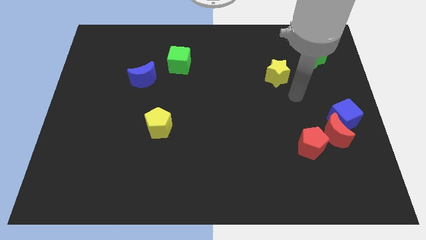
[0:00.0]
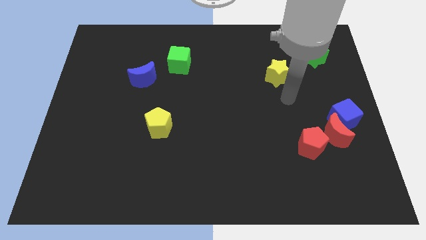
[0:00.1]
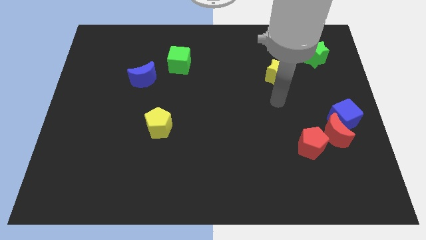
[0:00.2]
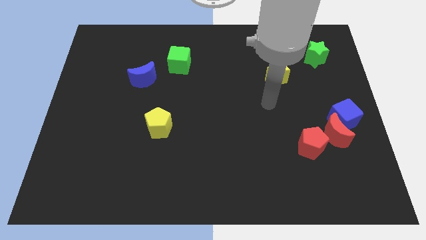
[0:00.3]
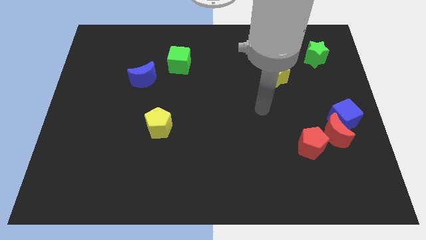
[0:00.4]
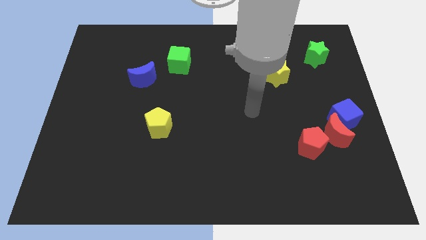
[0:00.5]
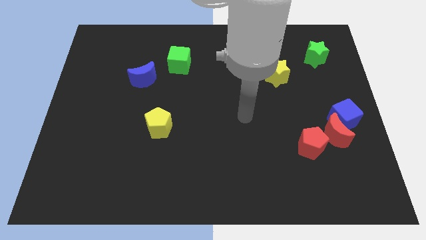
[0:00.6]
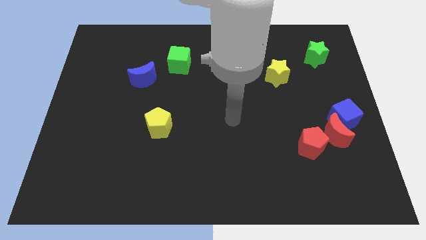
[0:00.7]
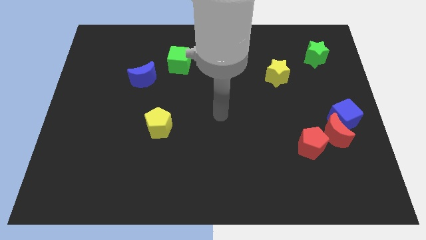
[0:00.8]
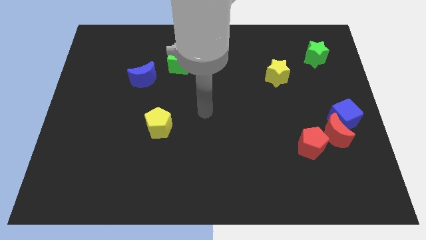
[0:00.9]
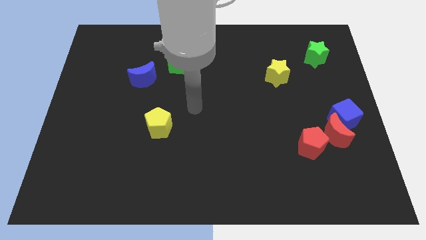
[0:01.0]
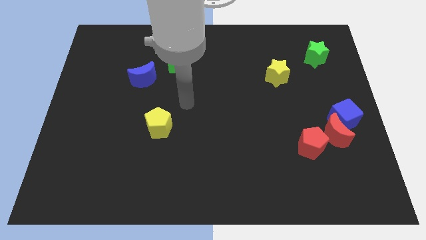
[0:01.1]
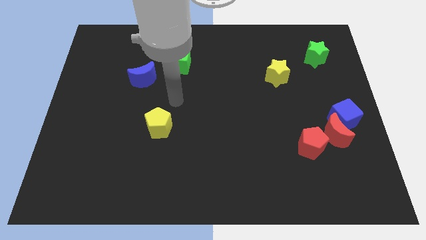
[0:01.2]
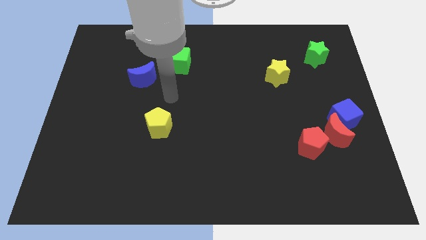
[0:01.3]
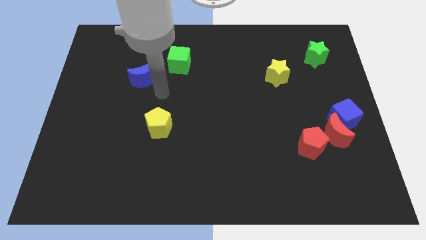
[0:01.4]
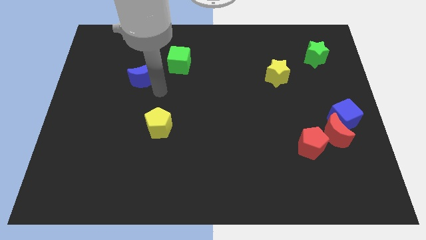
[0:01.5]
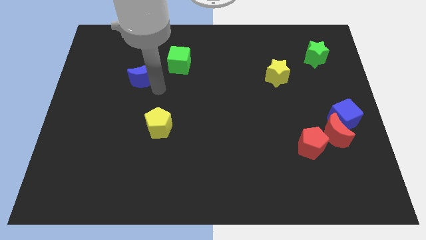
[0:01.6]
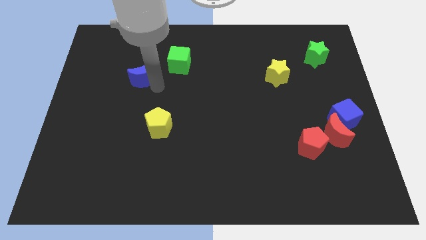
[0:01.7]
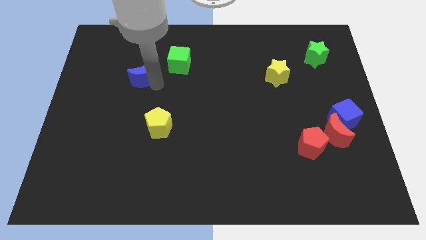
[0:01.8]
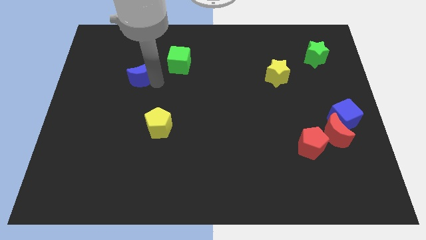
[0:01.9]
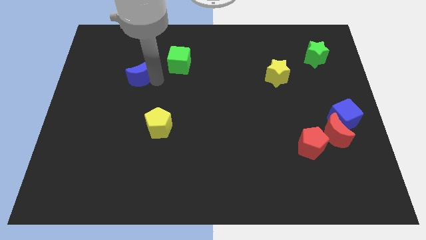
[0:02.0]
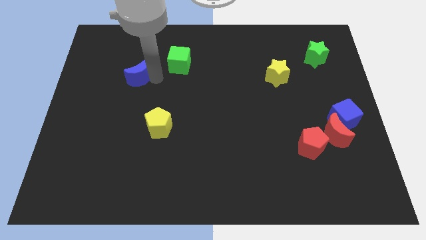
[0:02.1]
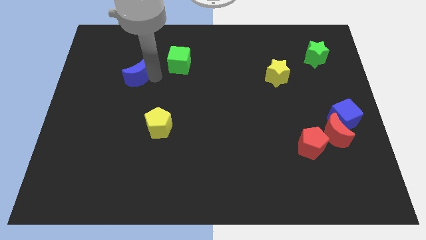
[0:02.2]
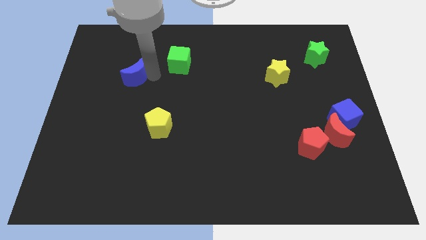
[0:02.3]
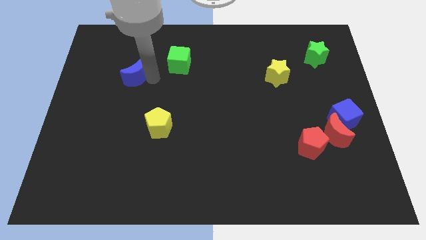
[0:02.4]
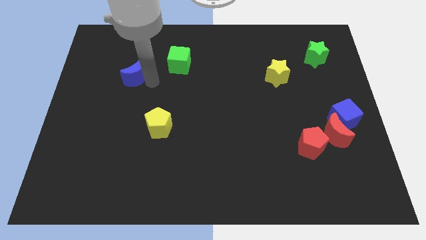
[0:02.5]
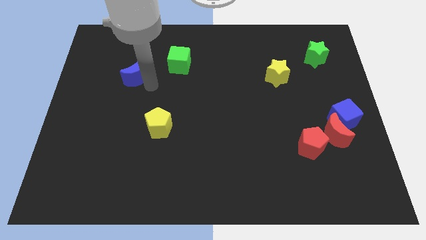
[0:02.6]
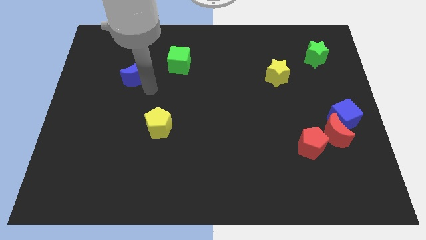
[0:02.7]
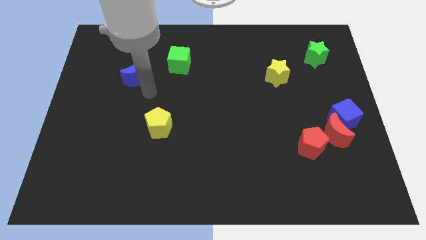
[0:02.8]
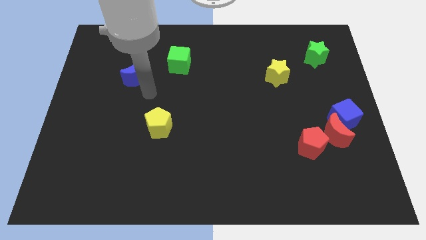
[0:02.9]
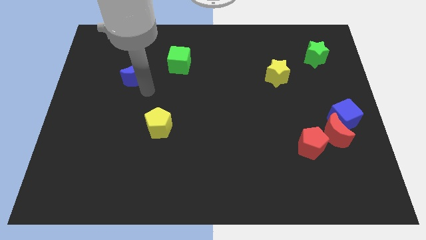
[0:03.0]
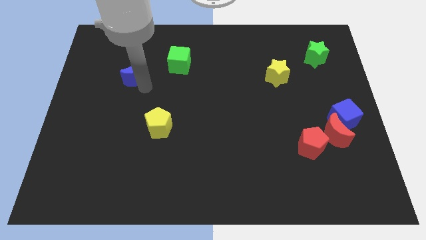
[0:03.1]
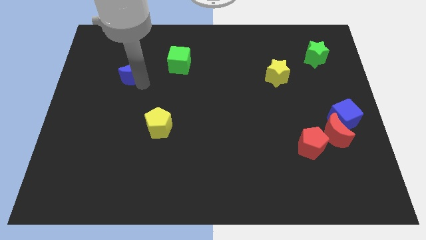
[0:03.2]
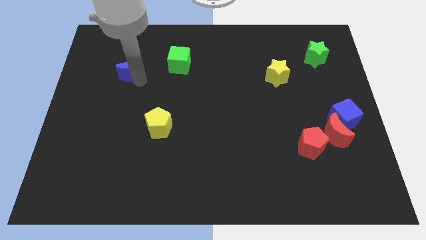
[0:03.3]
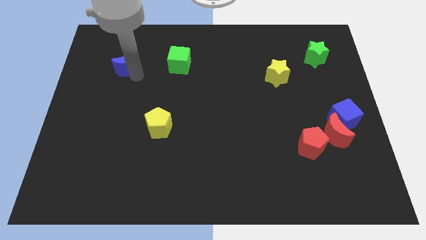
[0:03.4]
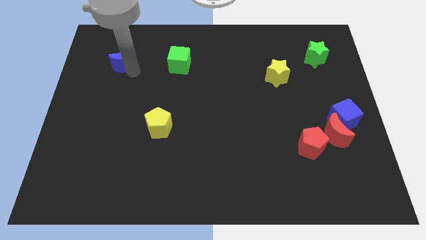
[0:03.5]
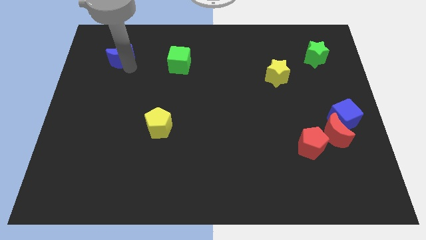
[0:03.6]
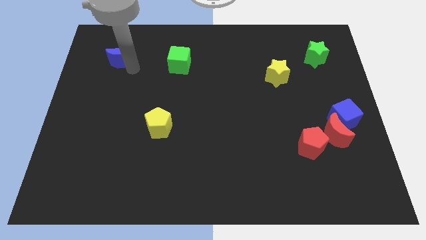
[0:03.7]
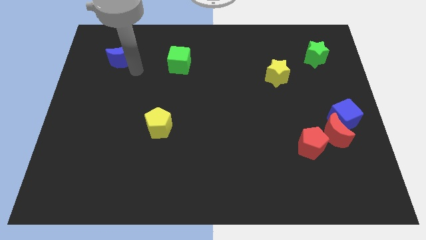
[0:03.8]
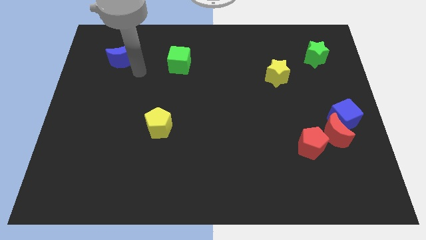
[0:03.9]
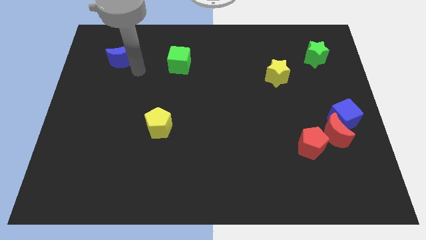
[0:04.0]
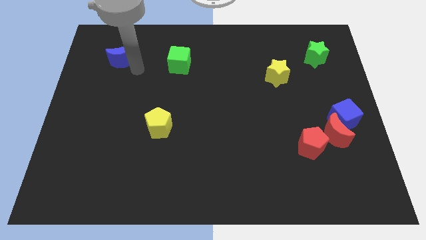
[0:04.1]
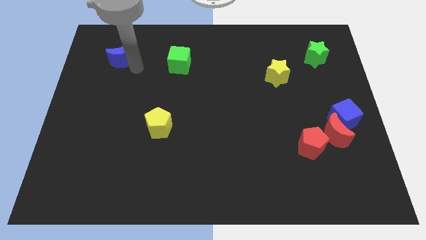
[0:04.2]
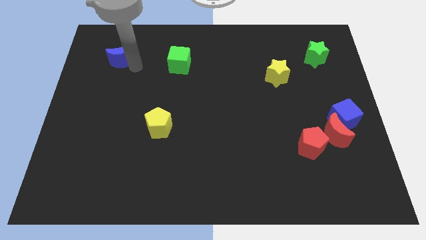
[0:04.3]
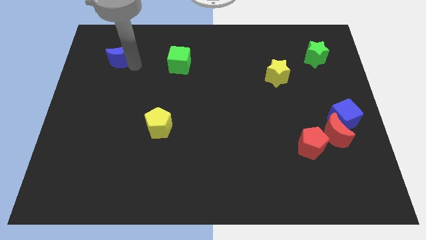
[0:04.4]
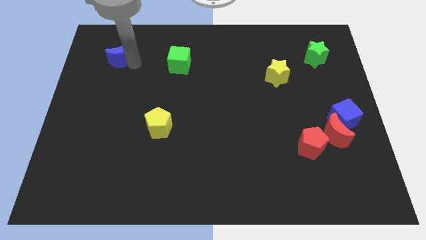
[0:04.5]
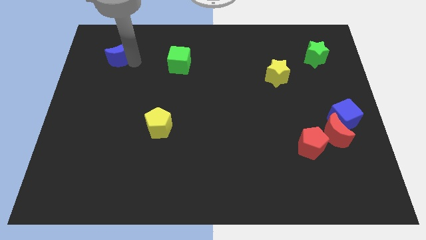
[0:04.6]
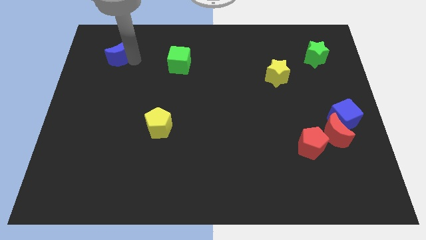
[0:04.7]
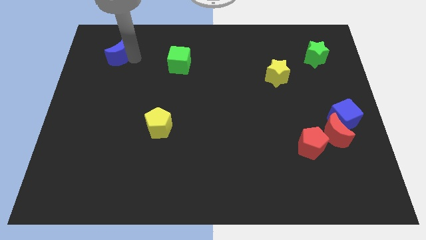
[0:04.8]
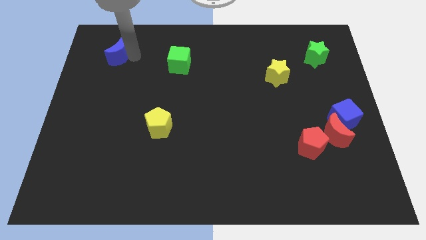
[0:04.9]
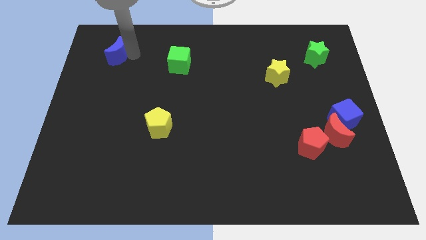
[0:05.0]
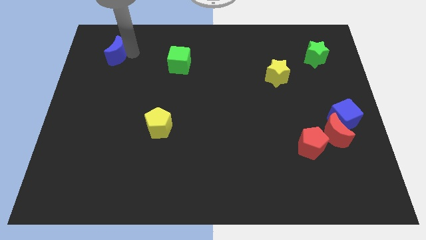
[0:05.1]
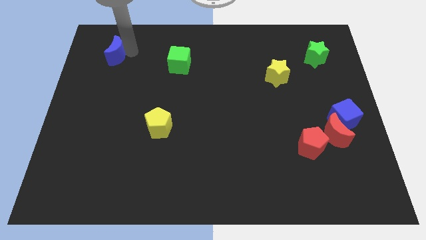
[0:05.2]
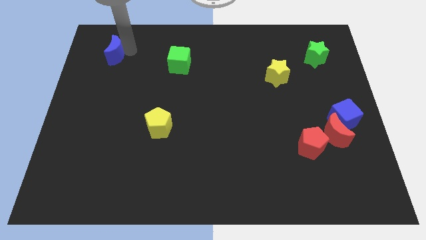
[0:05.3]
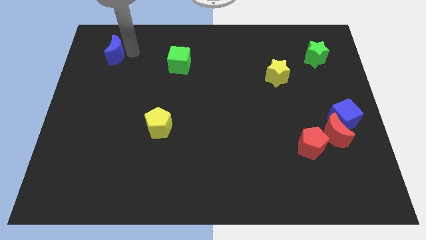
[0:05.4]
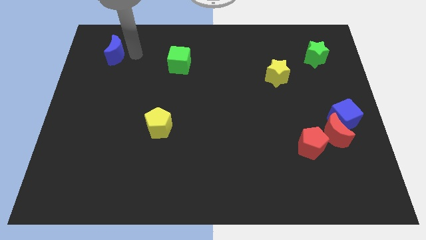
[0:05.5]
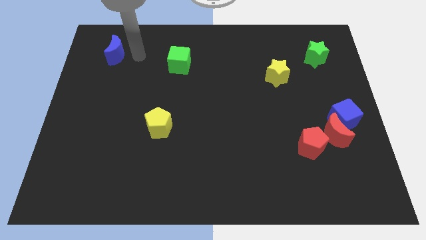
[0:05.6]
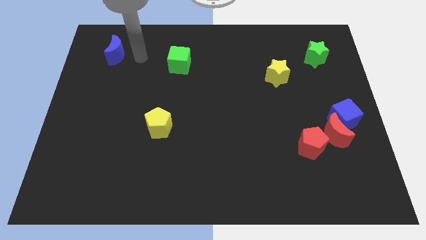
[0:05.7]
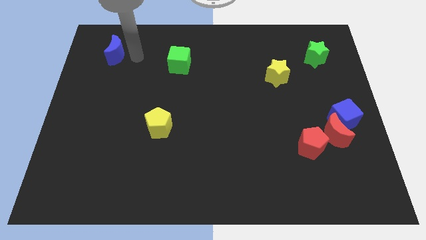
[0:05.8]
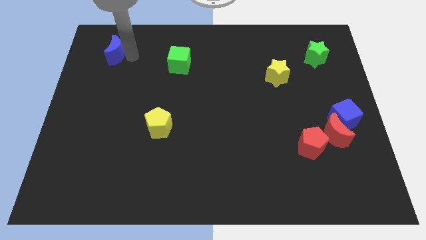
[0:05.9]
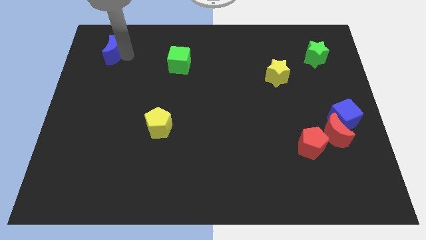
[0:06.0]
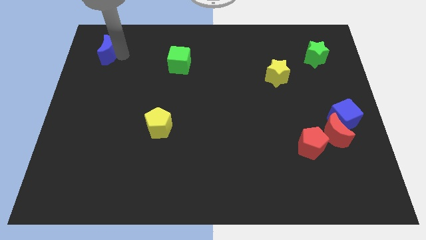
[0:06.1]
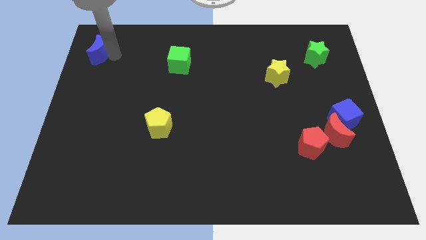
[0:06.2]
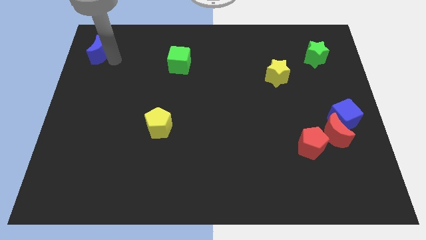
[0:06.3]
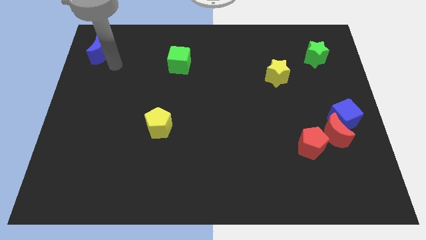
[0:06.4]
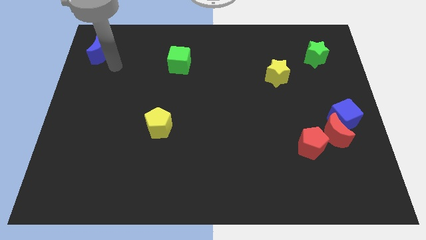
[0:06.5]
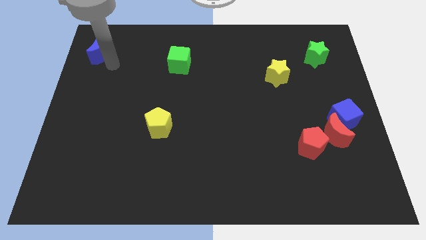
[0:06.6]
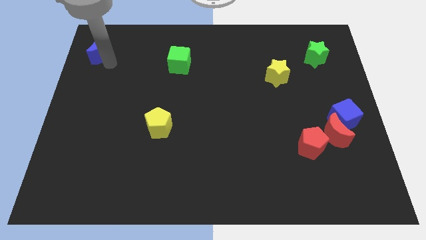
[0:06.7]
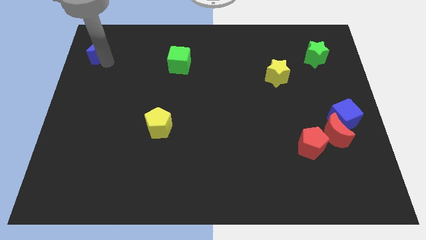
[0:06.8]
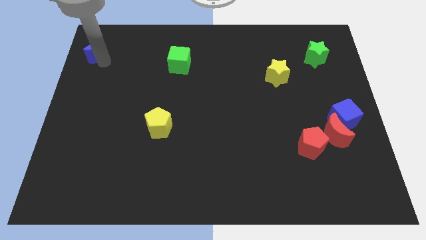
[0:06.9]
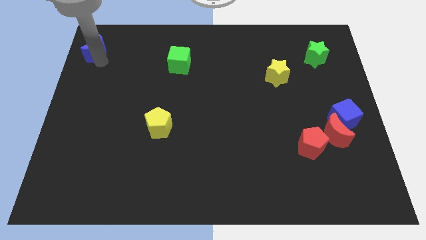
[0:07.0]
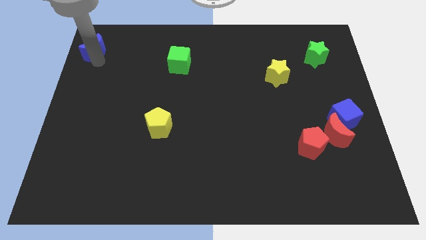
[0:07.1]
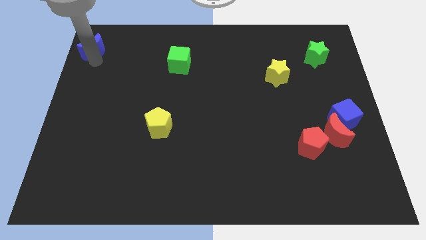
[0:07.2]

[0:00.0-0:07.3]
move the blue moon to the top left
